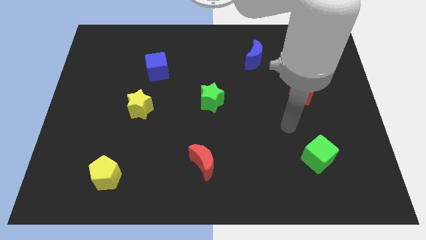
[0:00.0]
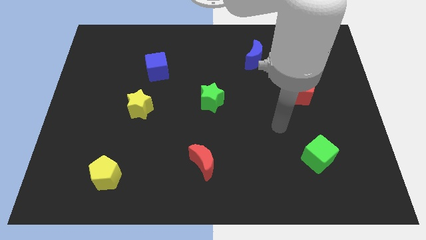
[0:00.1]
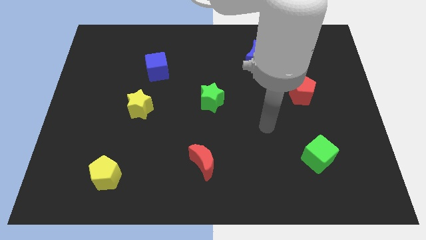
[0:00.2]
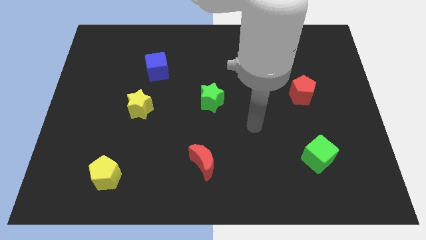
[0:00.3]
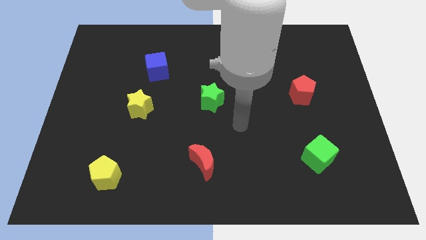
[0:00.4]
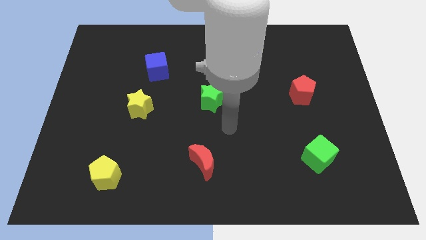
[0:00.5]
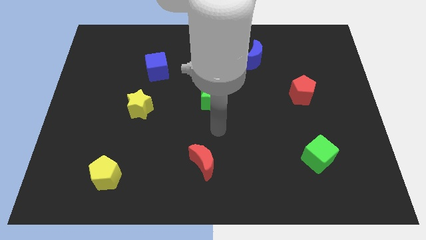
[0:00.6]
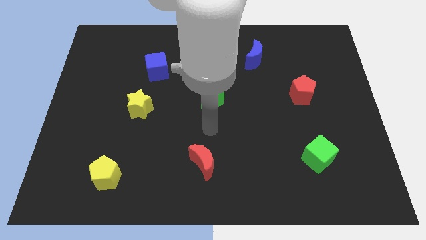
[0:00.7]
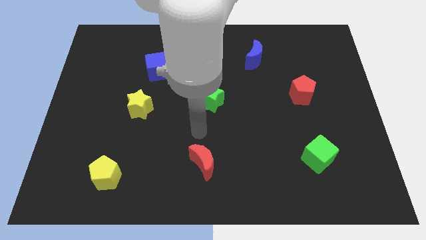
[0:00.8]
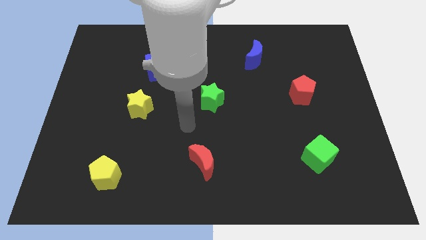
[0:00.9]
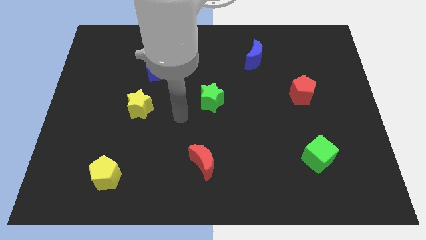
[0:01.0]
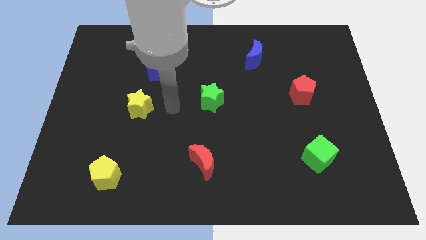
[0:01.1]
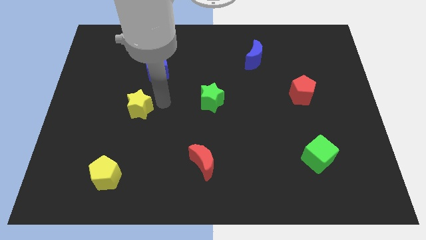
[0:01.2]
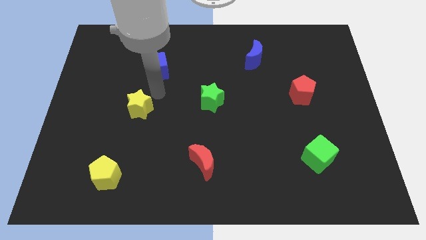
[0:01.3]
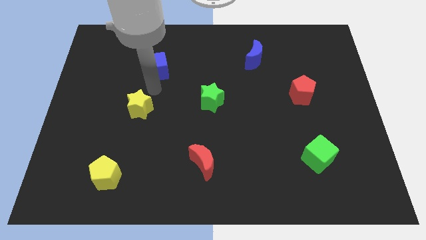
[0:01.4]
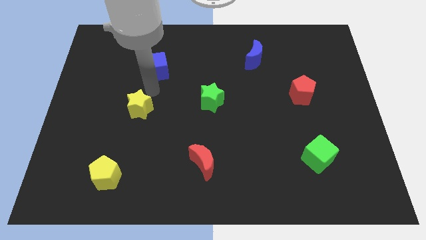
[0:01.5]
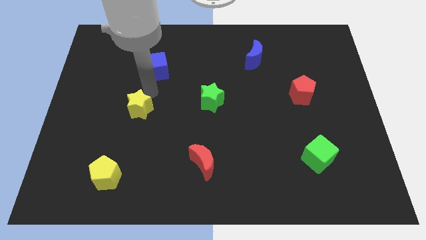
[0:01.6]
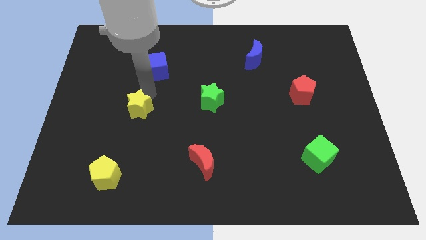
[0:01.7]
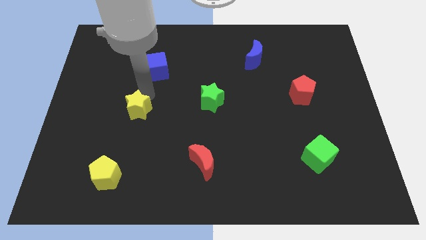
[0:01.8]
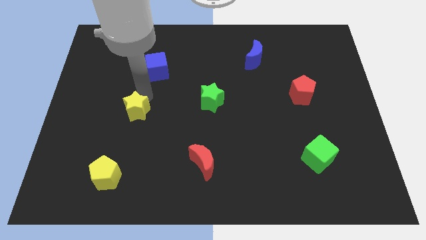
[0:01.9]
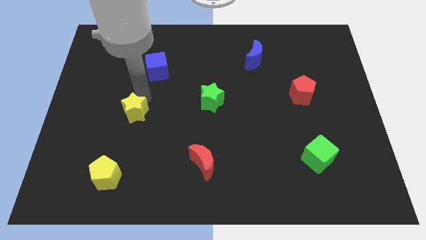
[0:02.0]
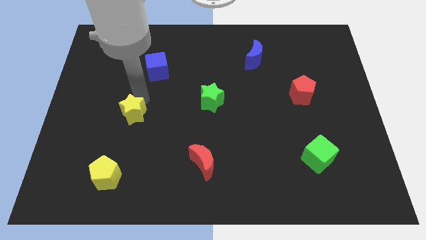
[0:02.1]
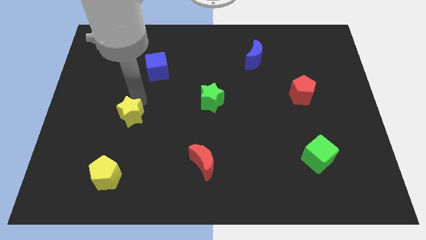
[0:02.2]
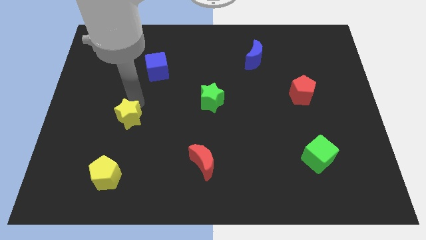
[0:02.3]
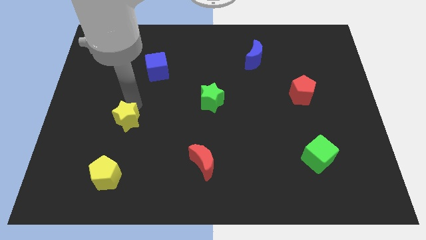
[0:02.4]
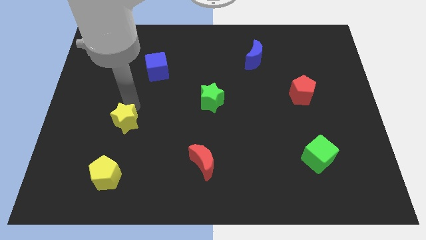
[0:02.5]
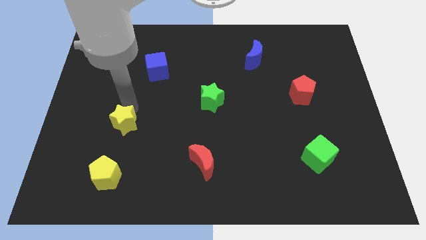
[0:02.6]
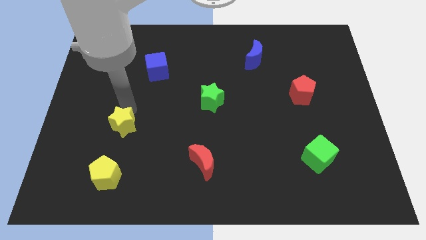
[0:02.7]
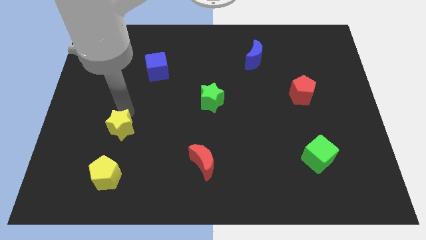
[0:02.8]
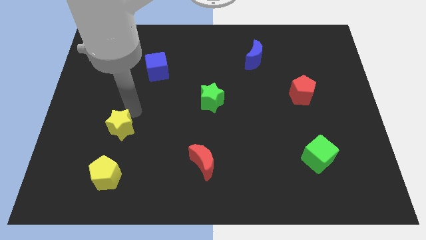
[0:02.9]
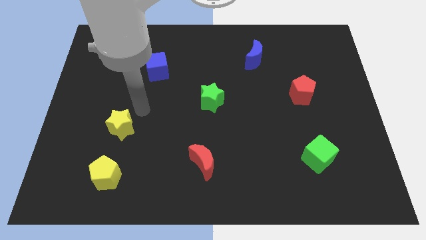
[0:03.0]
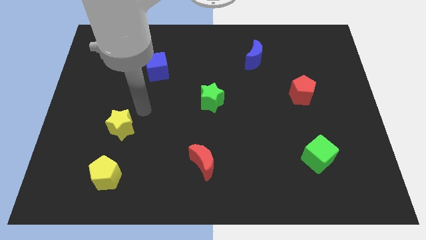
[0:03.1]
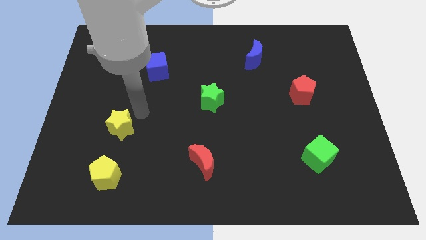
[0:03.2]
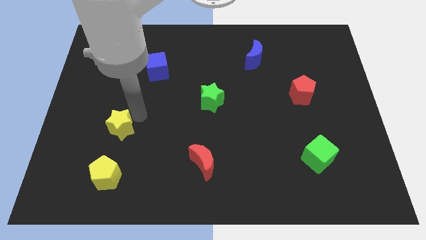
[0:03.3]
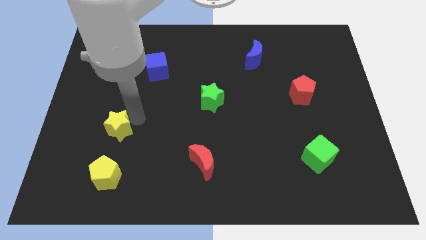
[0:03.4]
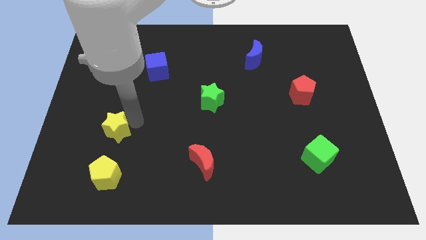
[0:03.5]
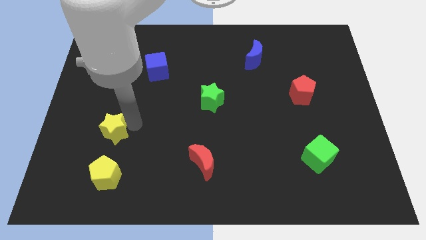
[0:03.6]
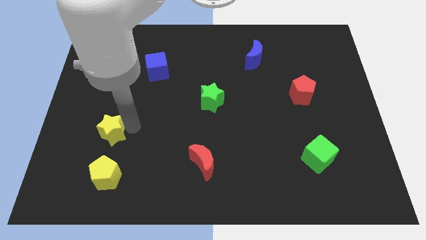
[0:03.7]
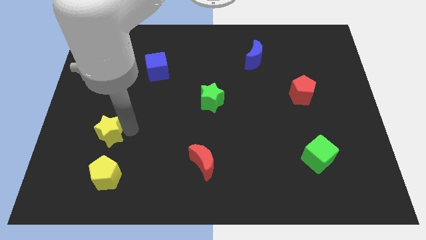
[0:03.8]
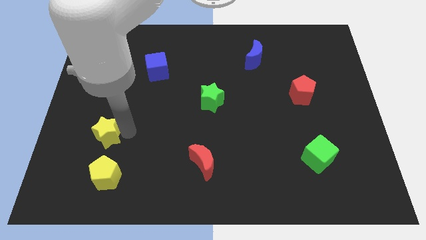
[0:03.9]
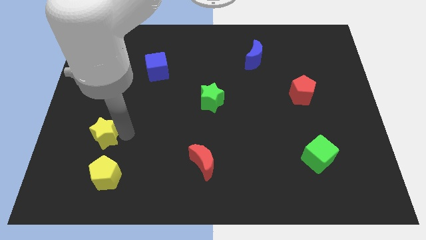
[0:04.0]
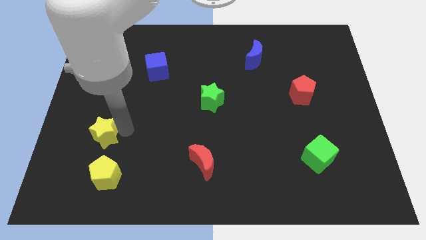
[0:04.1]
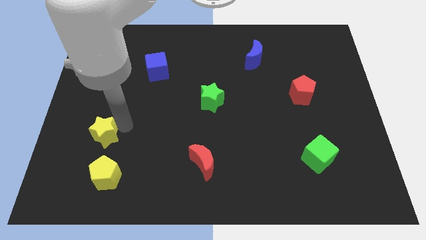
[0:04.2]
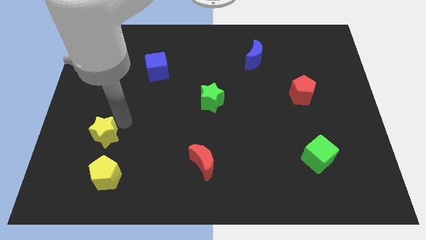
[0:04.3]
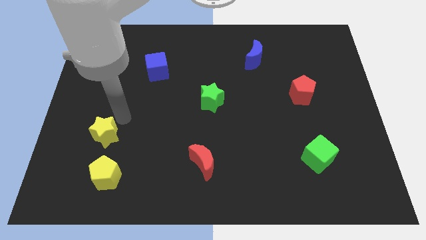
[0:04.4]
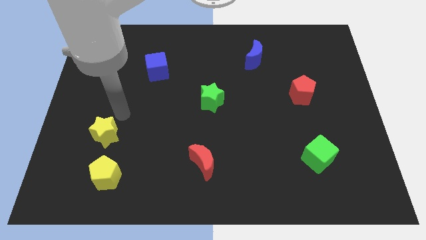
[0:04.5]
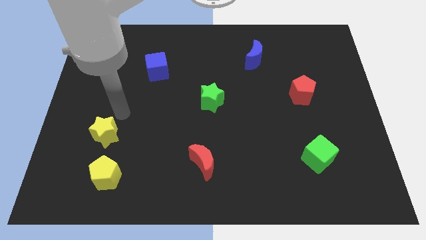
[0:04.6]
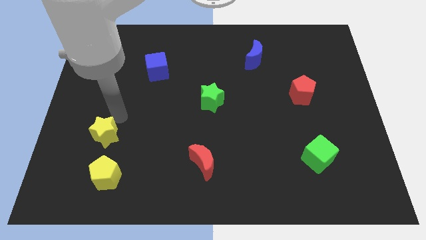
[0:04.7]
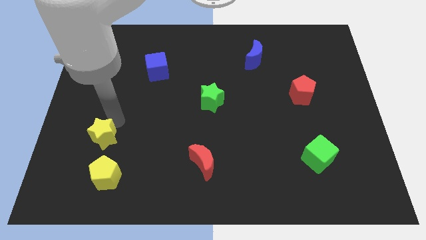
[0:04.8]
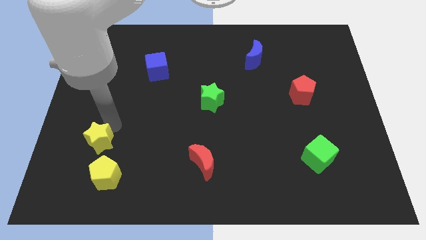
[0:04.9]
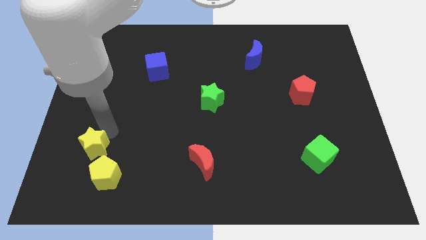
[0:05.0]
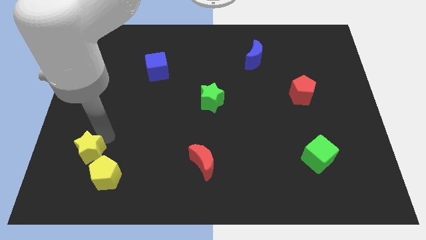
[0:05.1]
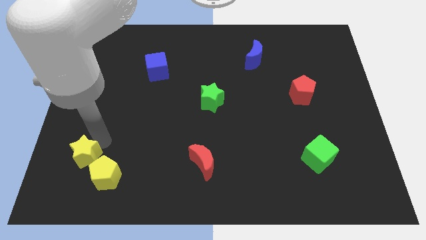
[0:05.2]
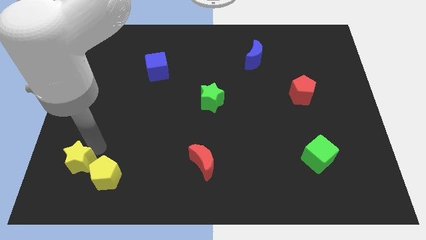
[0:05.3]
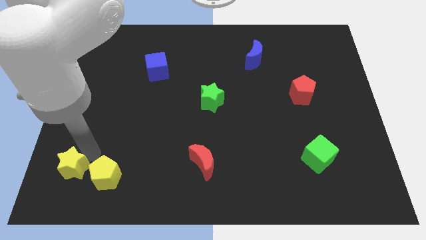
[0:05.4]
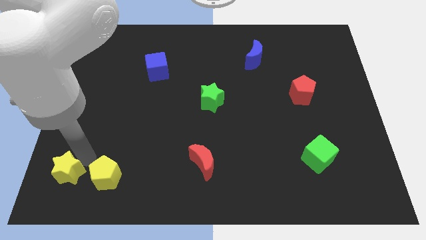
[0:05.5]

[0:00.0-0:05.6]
slide the yellow star to the bottom left

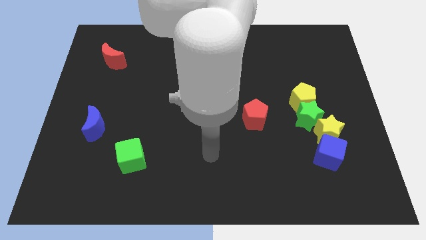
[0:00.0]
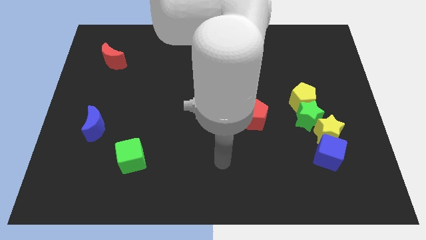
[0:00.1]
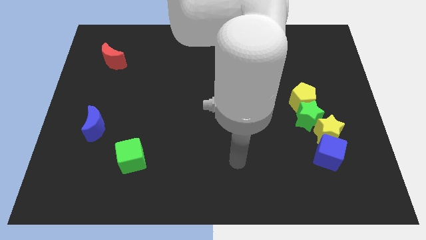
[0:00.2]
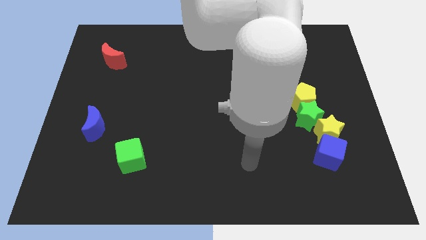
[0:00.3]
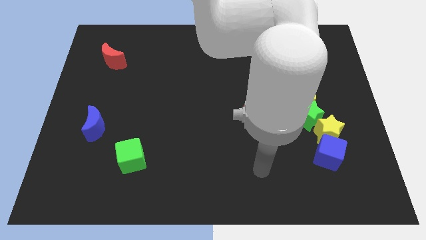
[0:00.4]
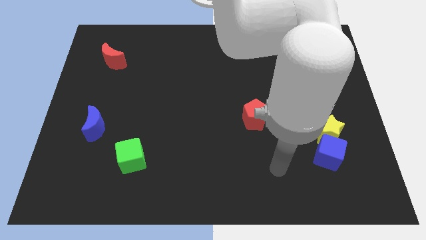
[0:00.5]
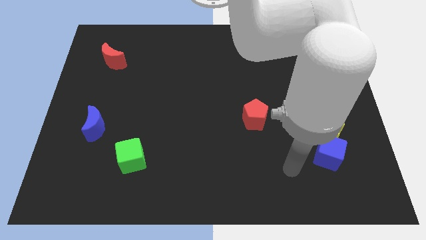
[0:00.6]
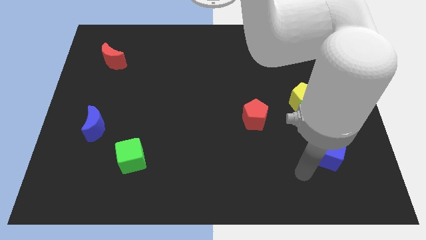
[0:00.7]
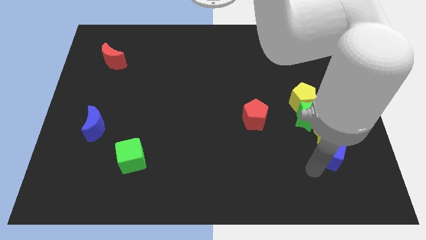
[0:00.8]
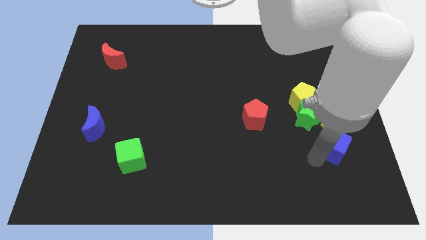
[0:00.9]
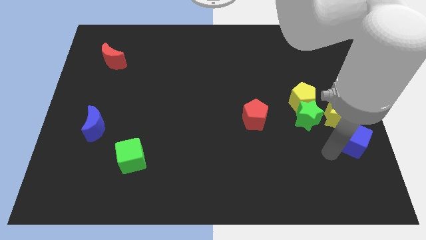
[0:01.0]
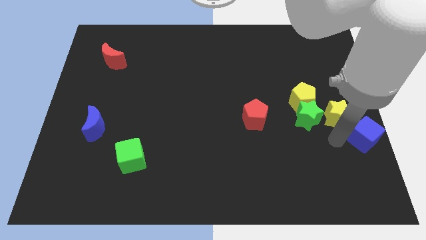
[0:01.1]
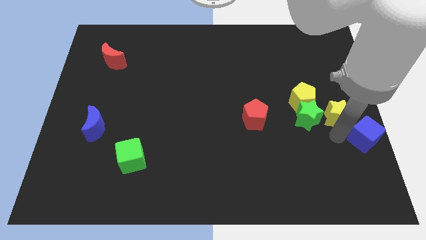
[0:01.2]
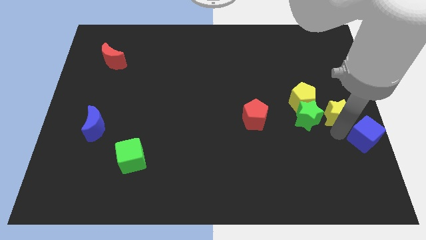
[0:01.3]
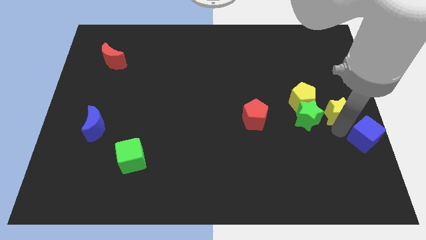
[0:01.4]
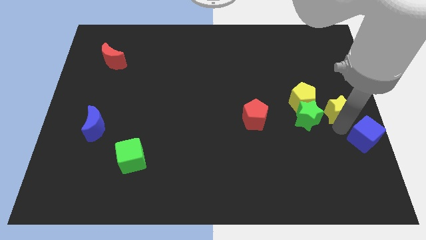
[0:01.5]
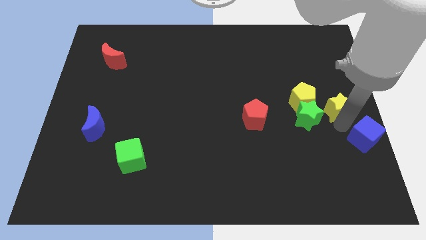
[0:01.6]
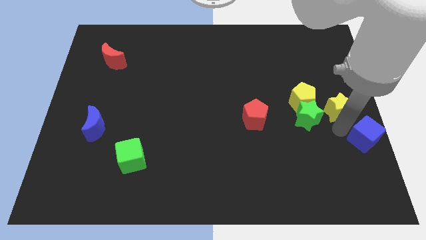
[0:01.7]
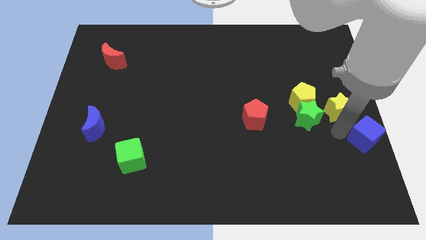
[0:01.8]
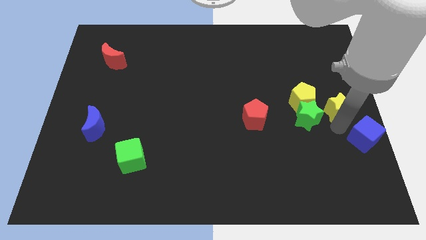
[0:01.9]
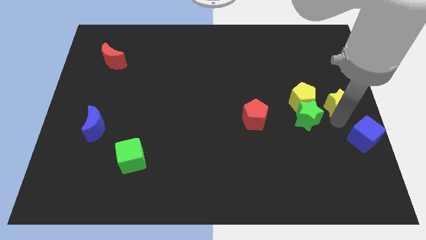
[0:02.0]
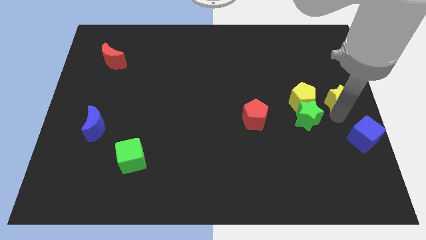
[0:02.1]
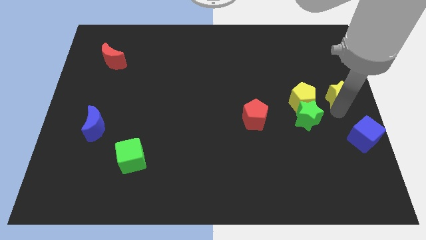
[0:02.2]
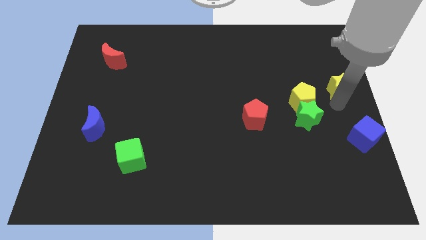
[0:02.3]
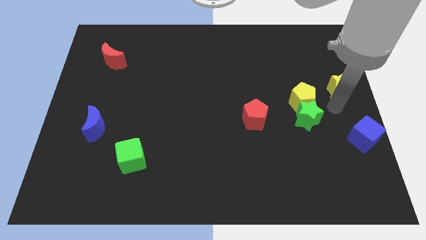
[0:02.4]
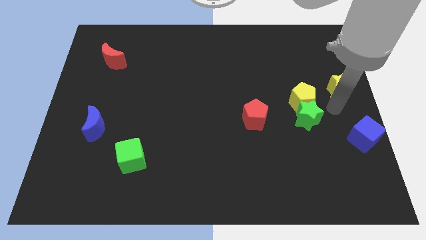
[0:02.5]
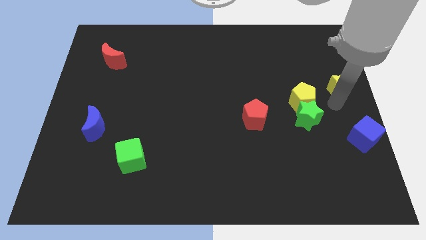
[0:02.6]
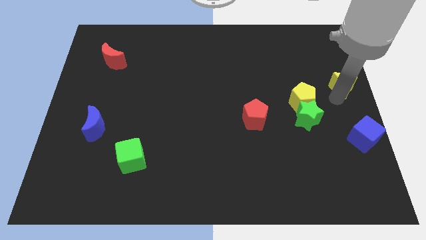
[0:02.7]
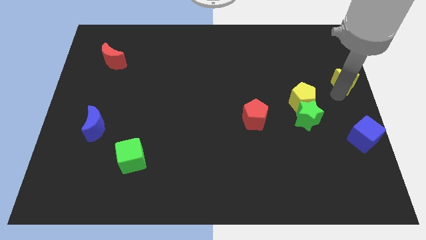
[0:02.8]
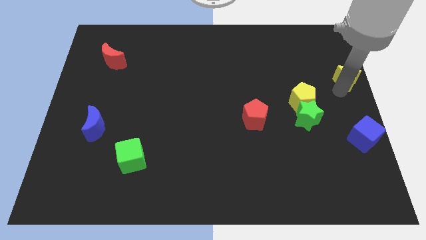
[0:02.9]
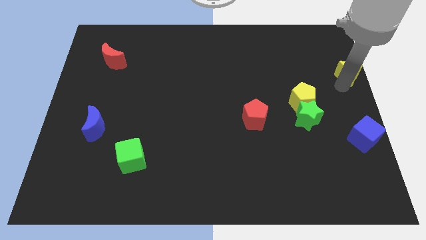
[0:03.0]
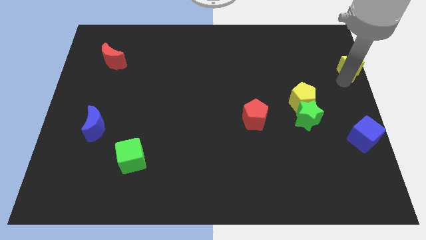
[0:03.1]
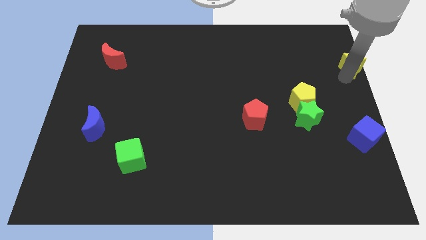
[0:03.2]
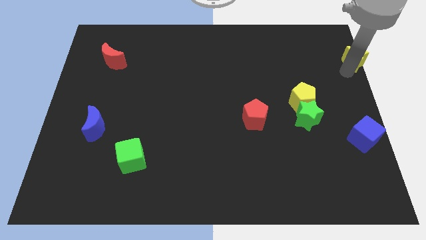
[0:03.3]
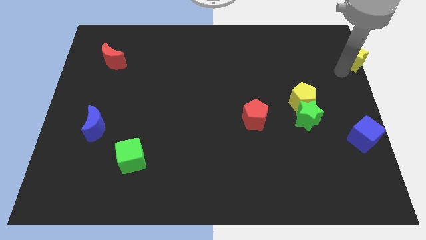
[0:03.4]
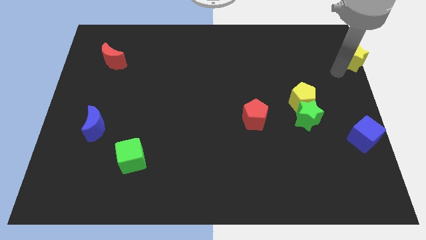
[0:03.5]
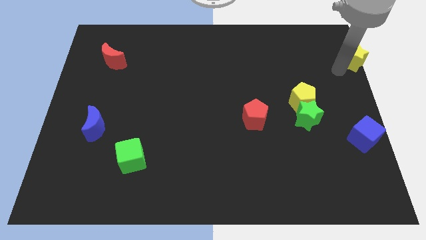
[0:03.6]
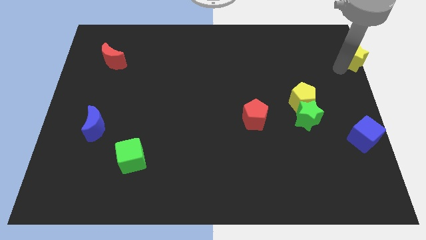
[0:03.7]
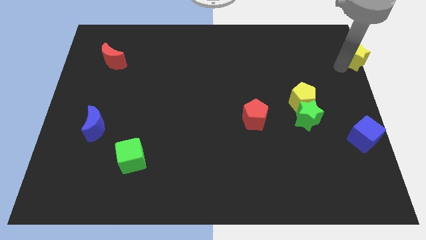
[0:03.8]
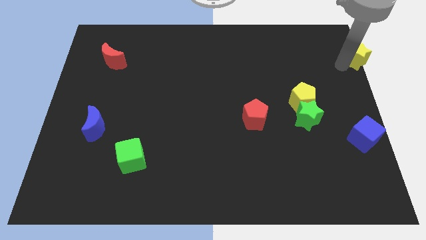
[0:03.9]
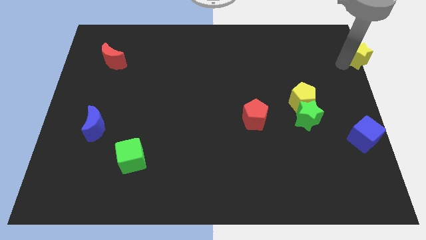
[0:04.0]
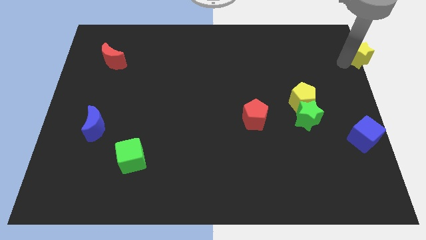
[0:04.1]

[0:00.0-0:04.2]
push the yellow star to the top right of the board
